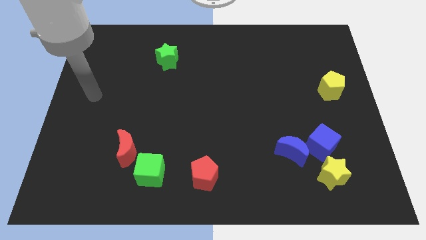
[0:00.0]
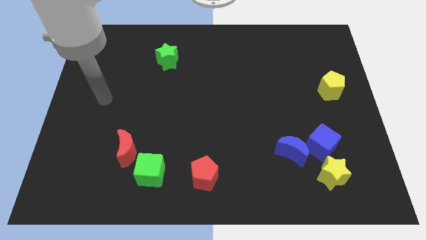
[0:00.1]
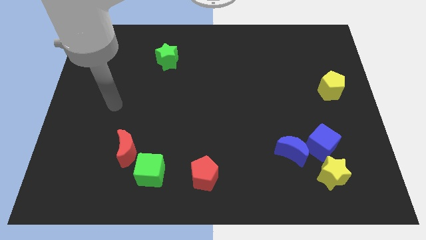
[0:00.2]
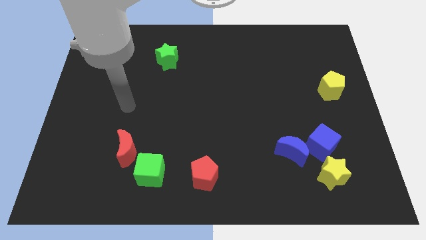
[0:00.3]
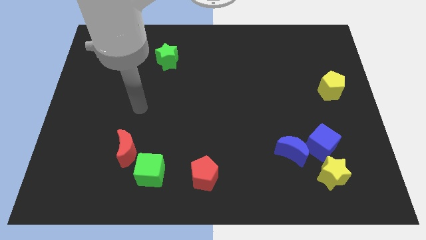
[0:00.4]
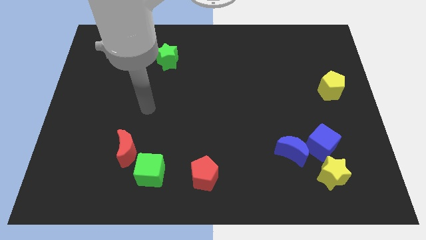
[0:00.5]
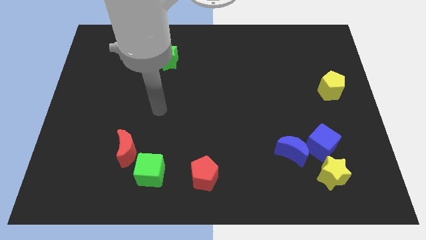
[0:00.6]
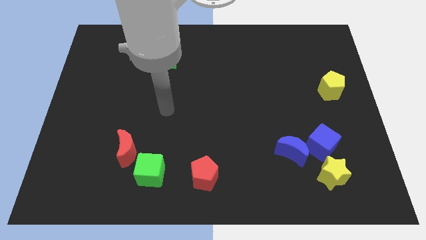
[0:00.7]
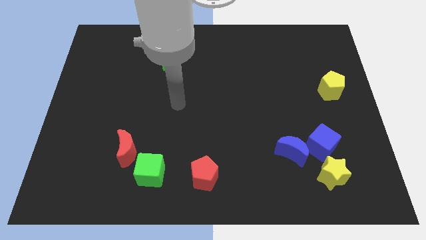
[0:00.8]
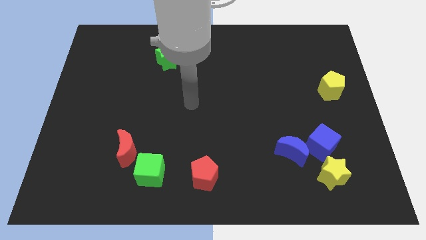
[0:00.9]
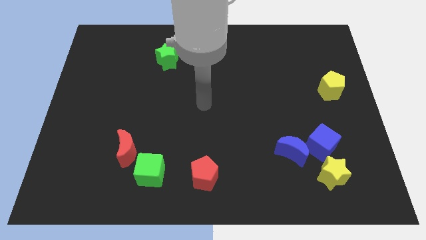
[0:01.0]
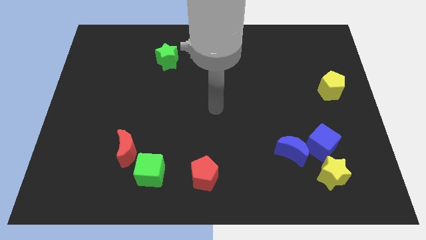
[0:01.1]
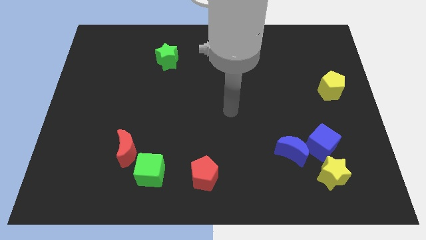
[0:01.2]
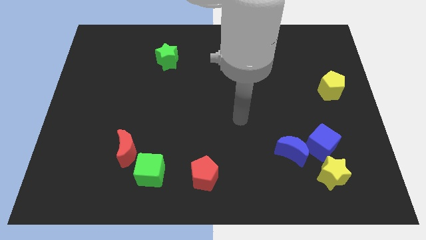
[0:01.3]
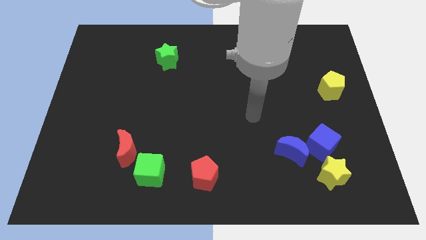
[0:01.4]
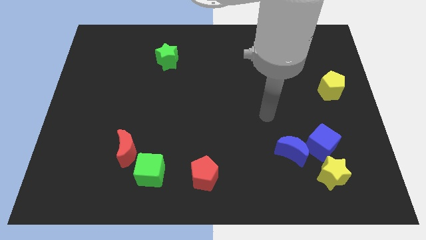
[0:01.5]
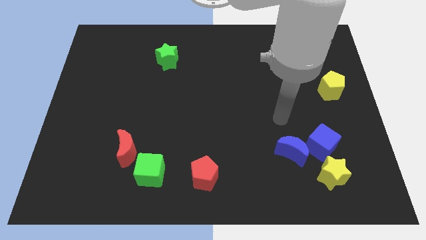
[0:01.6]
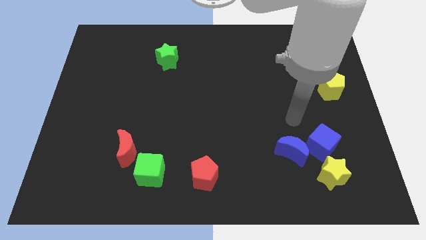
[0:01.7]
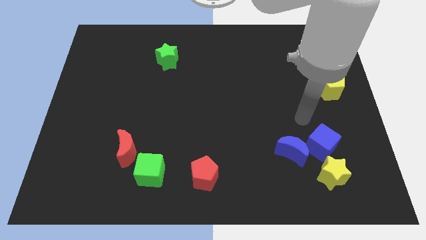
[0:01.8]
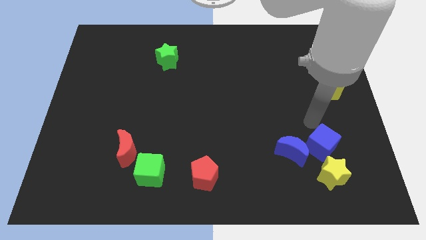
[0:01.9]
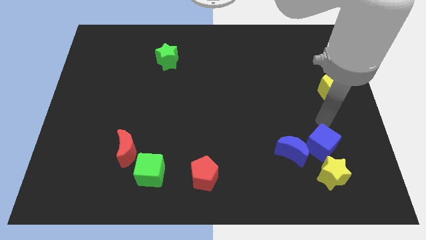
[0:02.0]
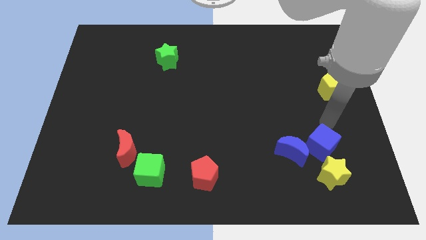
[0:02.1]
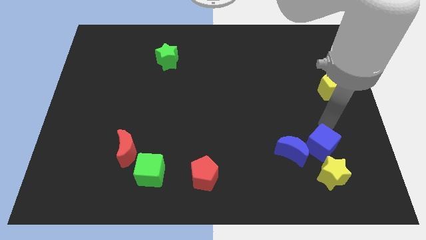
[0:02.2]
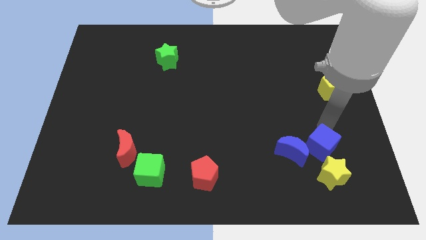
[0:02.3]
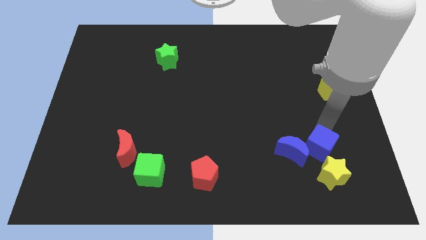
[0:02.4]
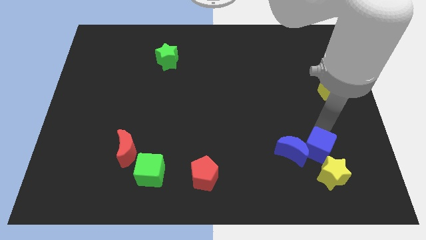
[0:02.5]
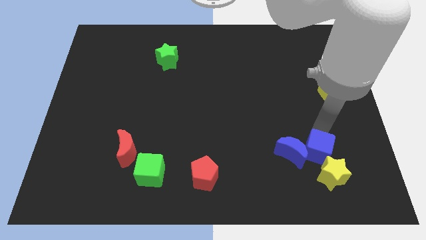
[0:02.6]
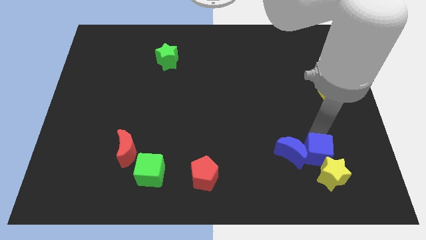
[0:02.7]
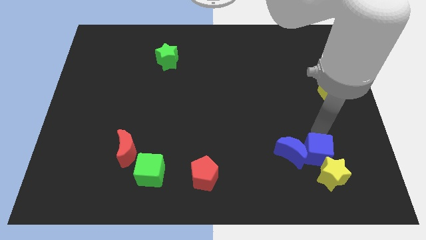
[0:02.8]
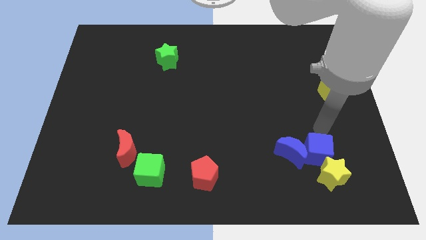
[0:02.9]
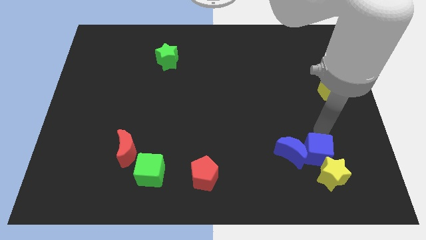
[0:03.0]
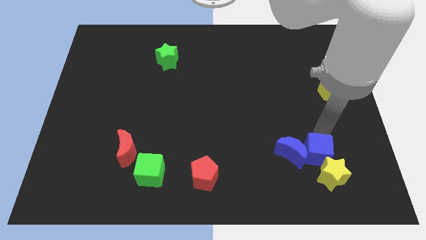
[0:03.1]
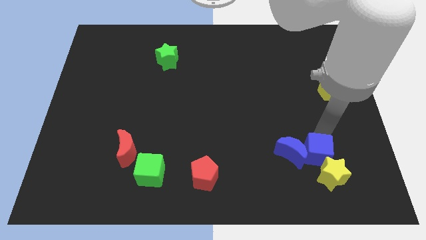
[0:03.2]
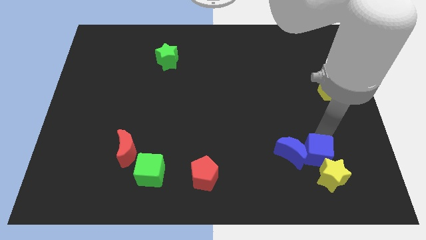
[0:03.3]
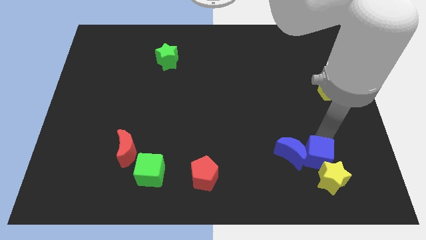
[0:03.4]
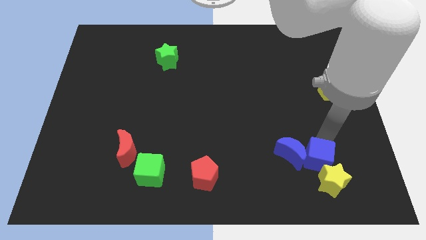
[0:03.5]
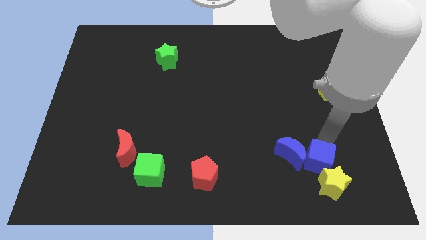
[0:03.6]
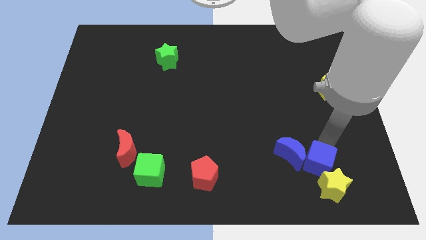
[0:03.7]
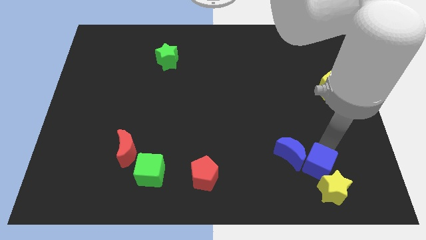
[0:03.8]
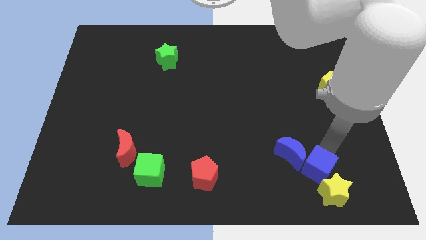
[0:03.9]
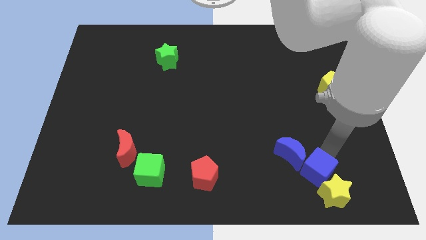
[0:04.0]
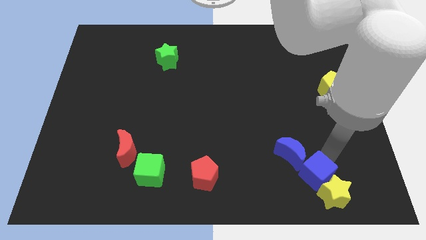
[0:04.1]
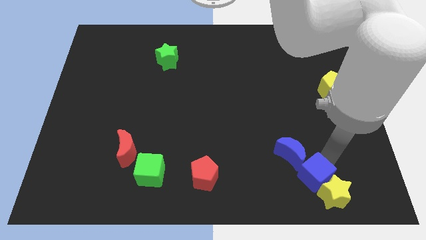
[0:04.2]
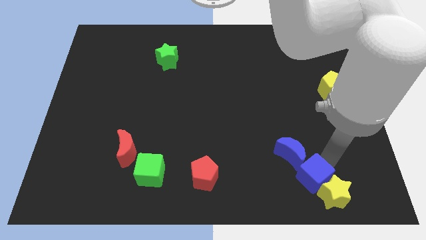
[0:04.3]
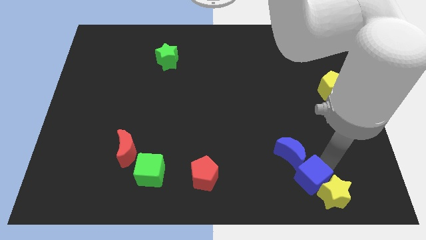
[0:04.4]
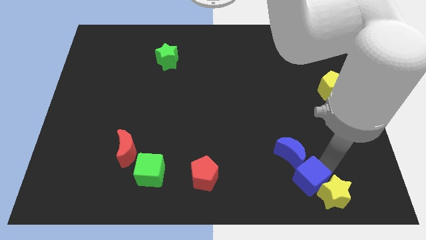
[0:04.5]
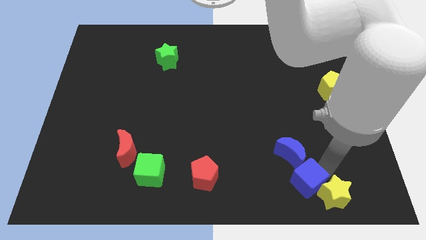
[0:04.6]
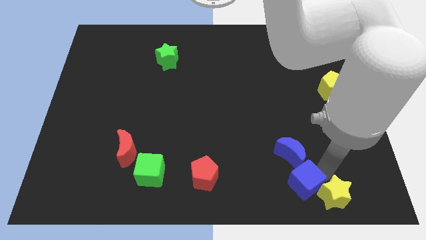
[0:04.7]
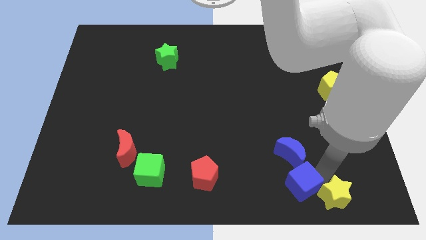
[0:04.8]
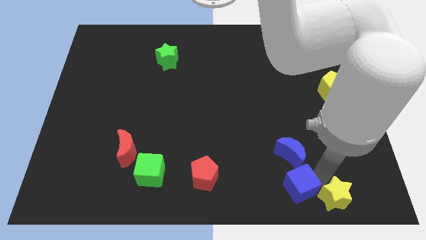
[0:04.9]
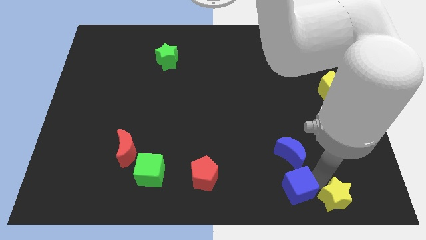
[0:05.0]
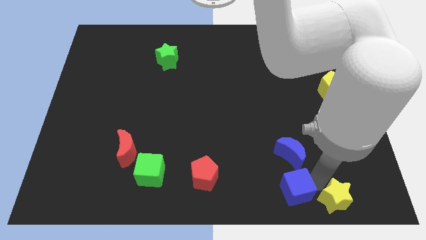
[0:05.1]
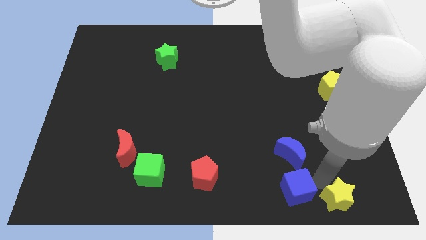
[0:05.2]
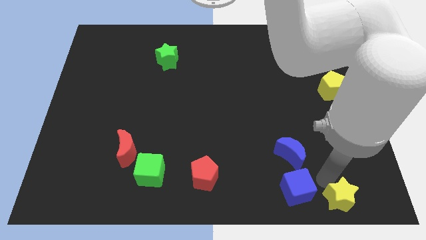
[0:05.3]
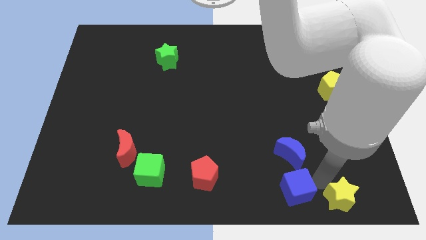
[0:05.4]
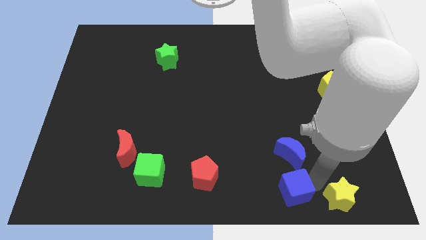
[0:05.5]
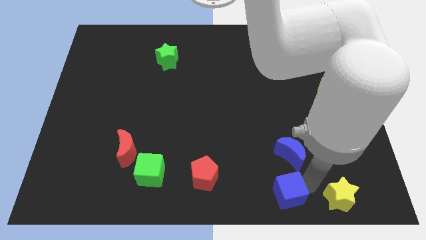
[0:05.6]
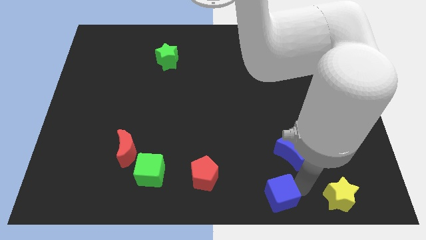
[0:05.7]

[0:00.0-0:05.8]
put the blue cube to the bottom

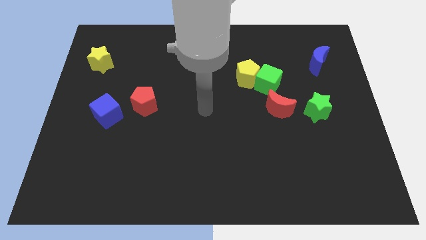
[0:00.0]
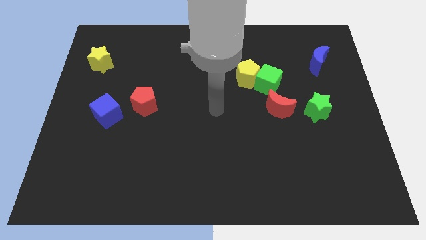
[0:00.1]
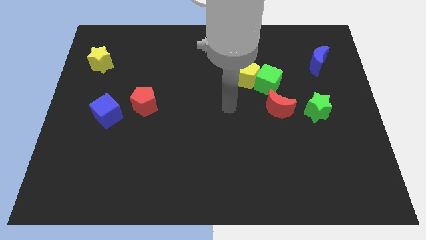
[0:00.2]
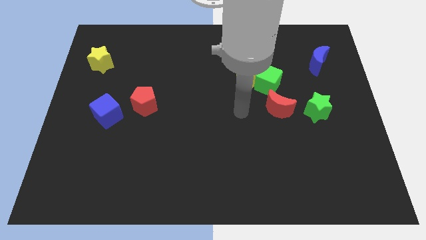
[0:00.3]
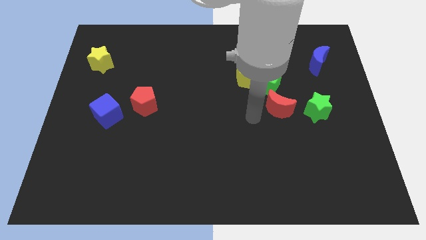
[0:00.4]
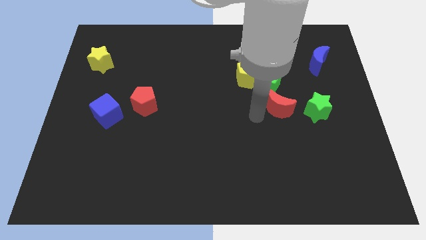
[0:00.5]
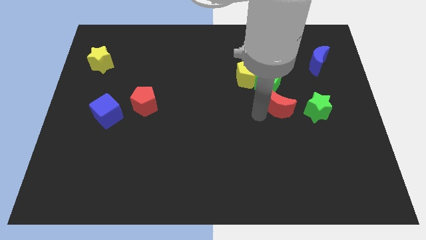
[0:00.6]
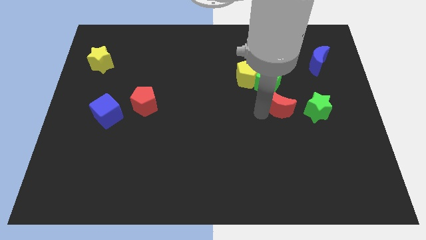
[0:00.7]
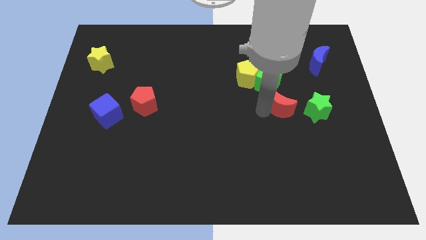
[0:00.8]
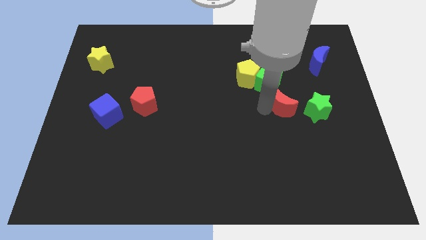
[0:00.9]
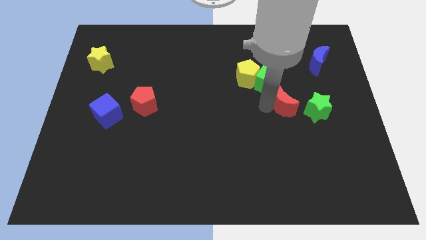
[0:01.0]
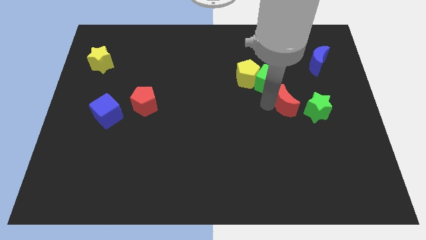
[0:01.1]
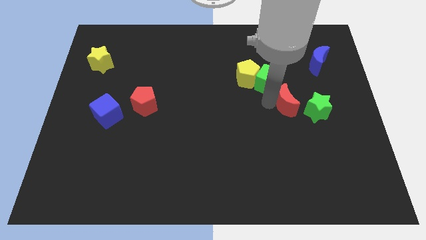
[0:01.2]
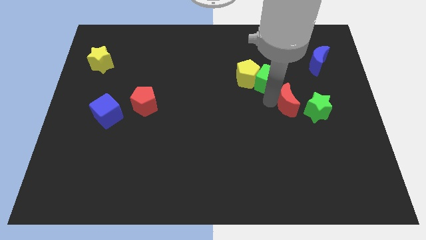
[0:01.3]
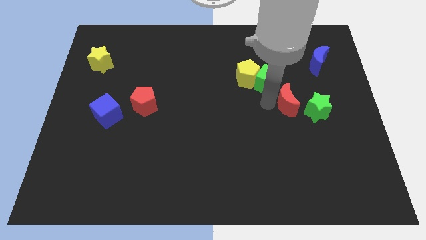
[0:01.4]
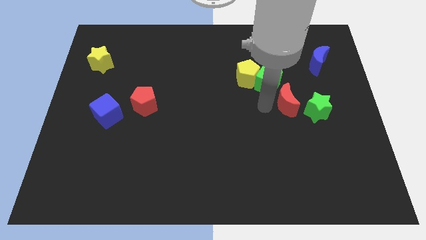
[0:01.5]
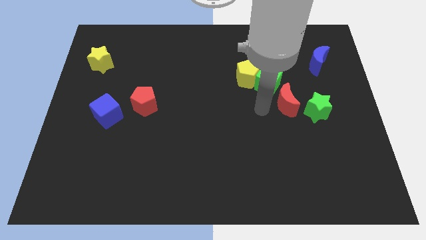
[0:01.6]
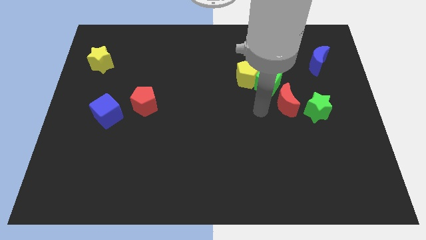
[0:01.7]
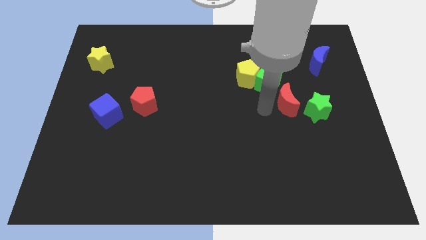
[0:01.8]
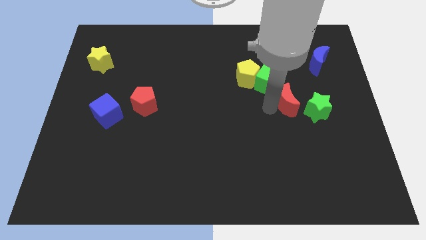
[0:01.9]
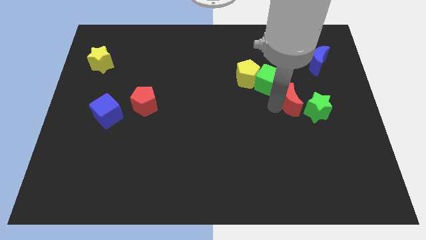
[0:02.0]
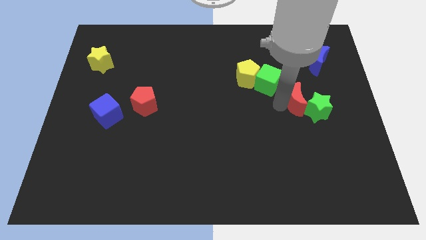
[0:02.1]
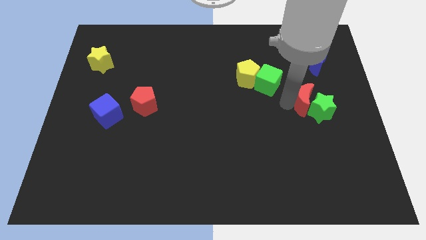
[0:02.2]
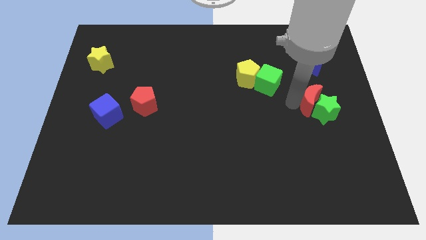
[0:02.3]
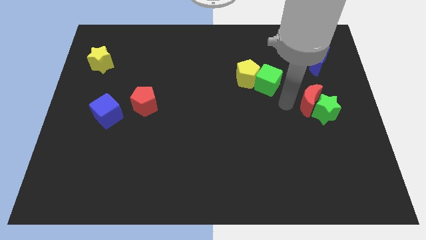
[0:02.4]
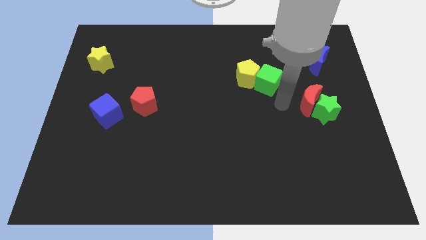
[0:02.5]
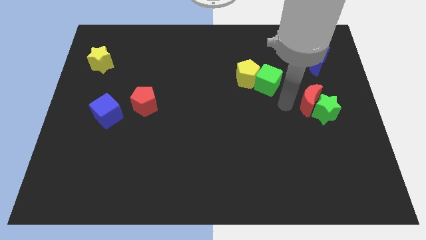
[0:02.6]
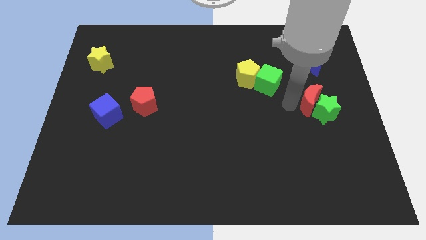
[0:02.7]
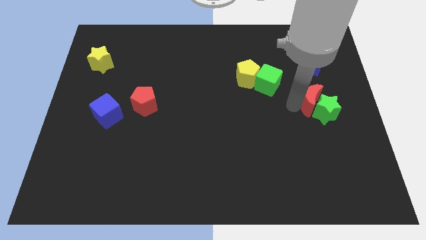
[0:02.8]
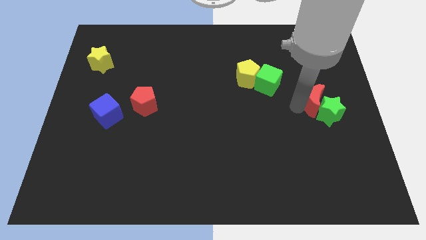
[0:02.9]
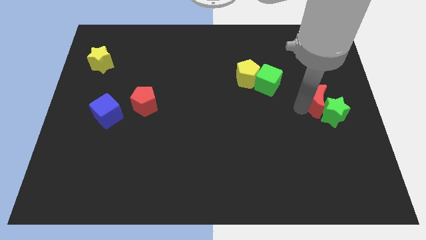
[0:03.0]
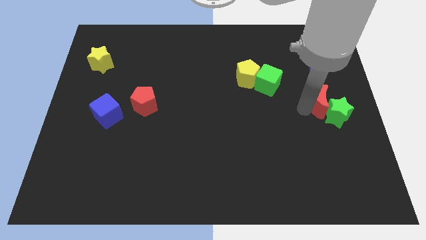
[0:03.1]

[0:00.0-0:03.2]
slide the red moon to the right side
